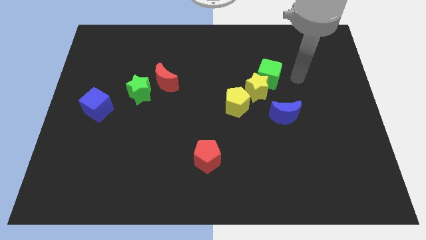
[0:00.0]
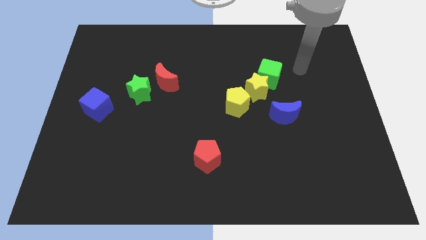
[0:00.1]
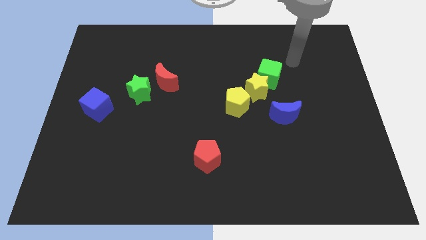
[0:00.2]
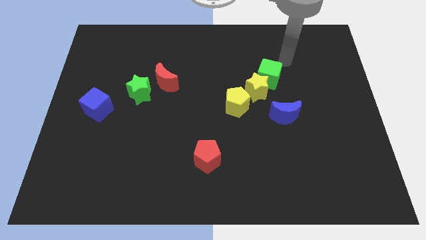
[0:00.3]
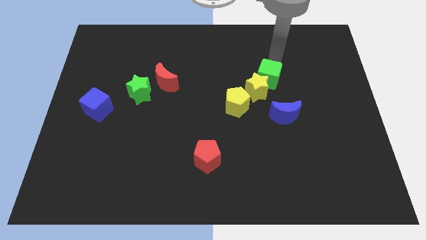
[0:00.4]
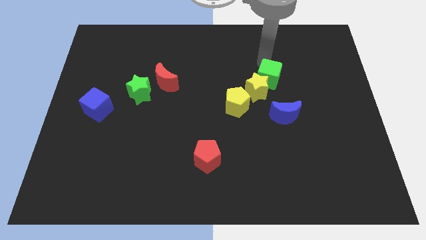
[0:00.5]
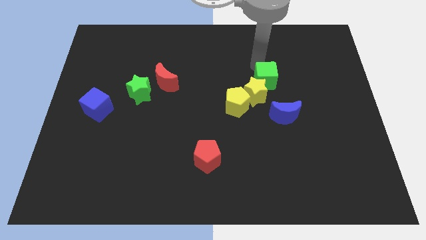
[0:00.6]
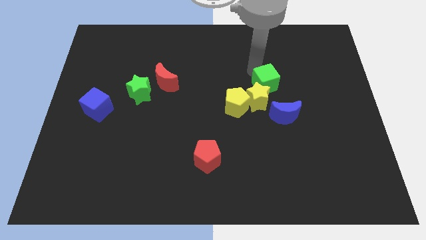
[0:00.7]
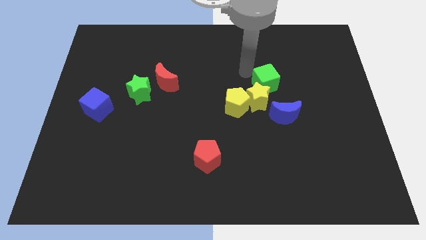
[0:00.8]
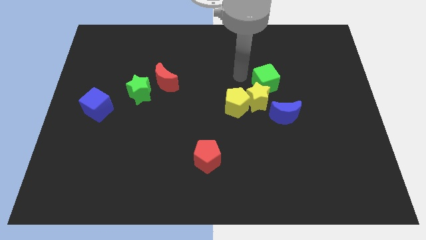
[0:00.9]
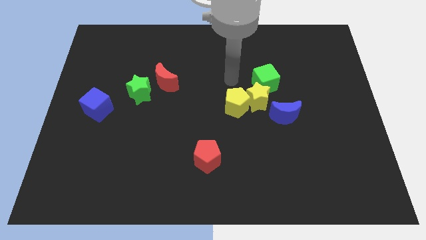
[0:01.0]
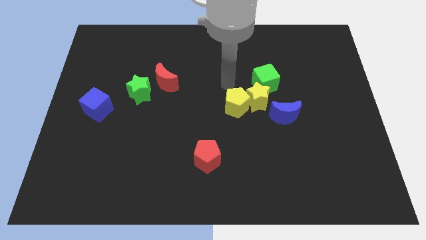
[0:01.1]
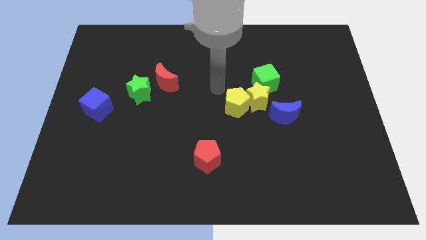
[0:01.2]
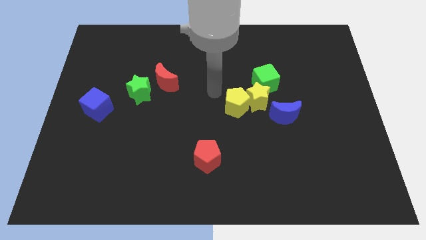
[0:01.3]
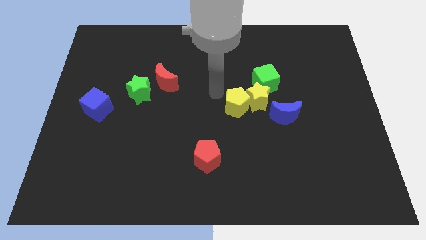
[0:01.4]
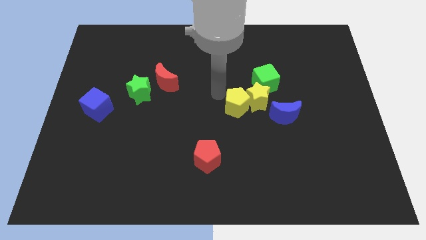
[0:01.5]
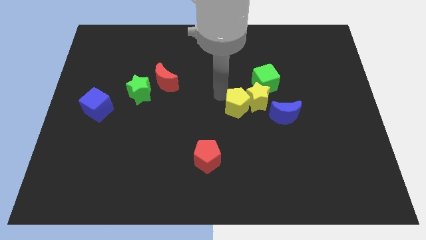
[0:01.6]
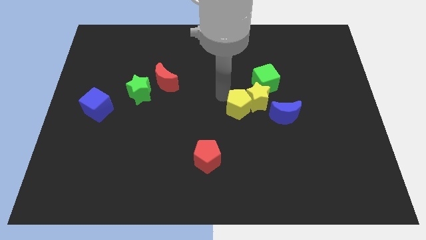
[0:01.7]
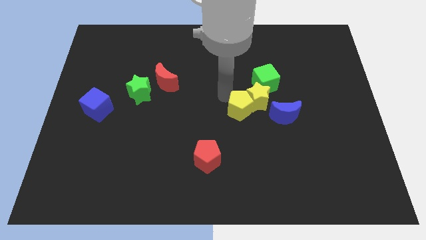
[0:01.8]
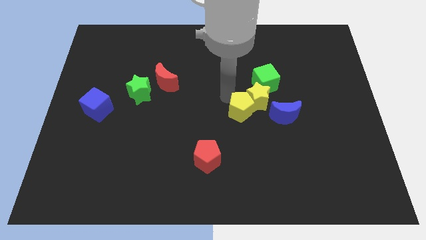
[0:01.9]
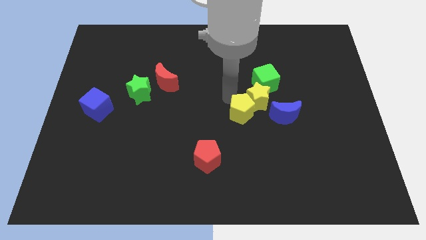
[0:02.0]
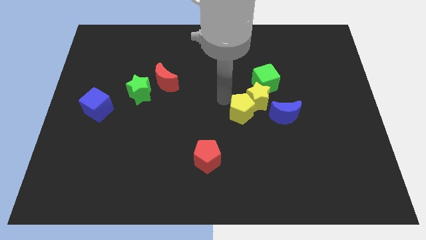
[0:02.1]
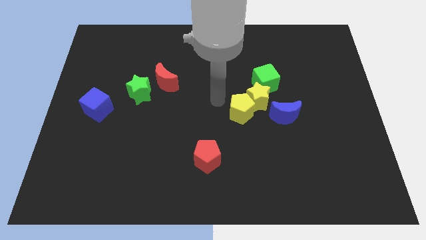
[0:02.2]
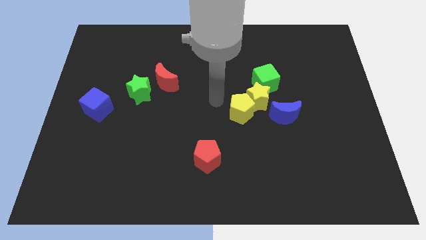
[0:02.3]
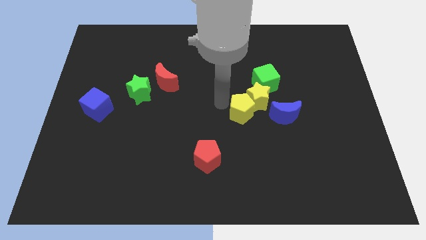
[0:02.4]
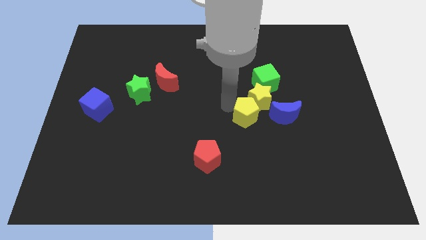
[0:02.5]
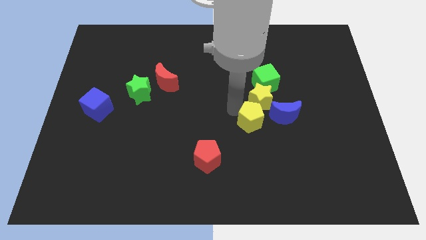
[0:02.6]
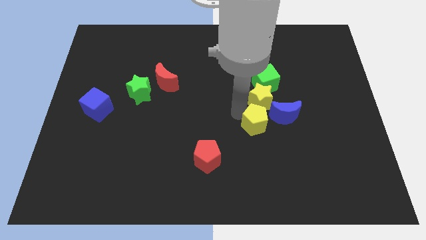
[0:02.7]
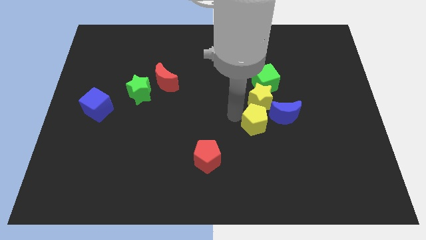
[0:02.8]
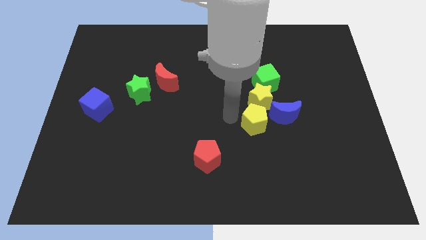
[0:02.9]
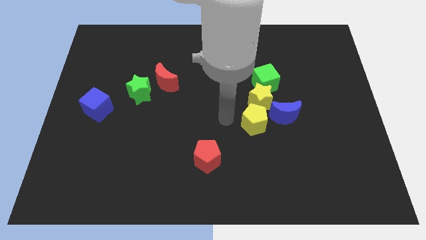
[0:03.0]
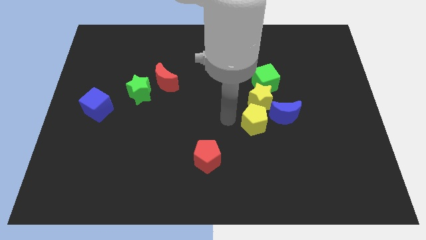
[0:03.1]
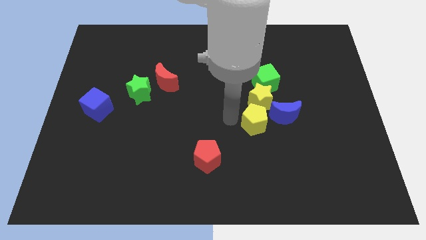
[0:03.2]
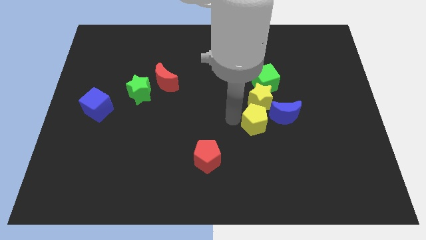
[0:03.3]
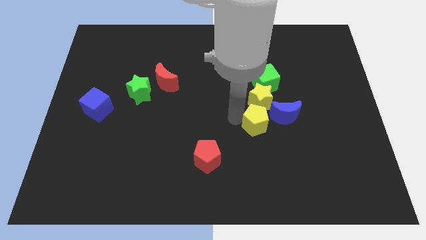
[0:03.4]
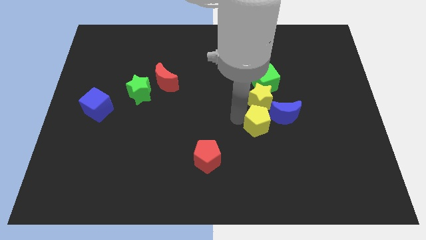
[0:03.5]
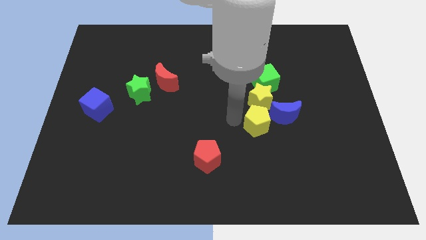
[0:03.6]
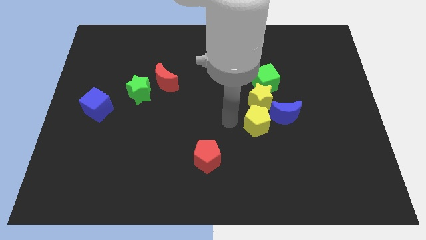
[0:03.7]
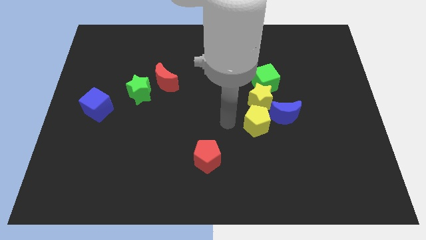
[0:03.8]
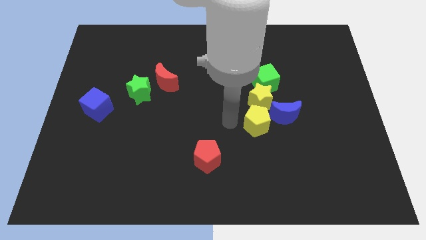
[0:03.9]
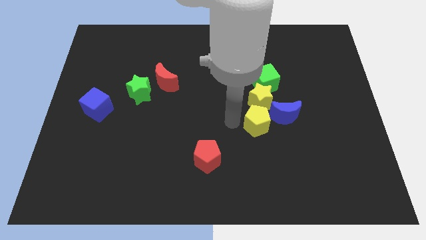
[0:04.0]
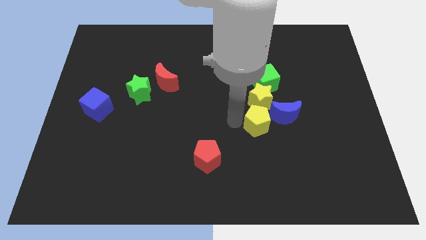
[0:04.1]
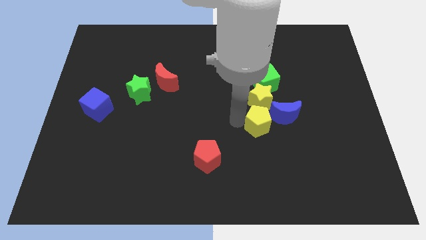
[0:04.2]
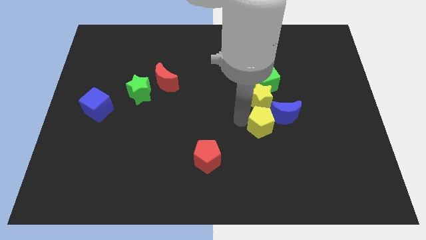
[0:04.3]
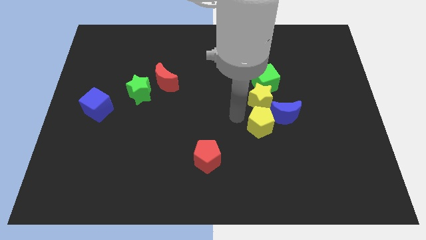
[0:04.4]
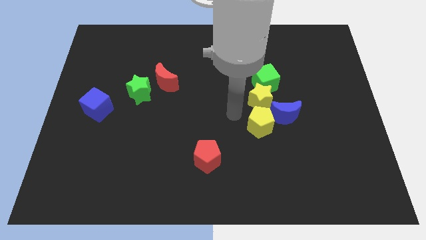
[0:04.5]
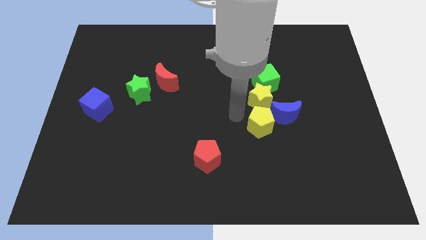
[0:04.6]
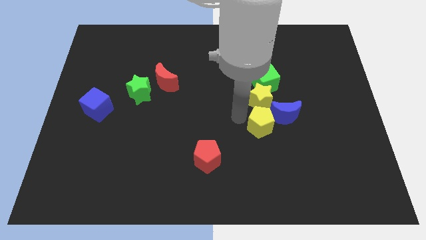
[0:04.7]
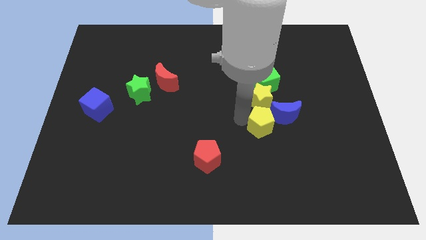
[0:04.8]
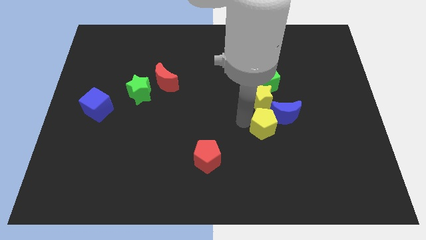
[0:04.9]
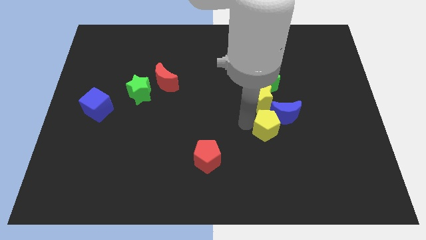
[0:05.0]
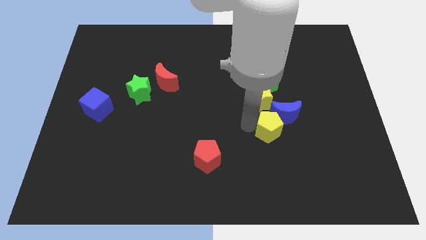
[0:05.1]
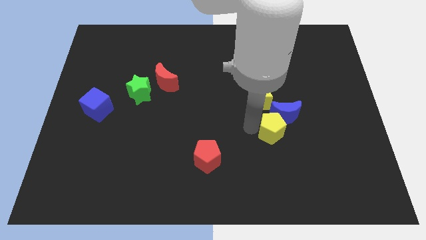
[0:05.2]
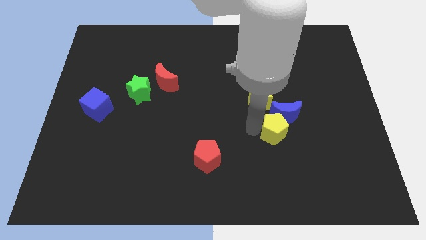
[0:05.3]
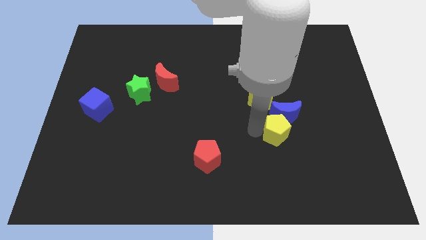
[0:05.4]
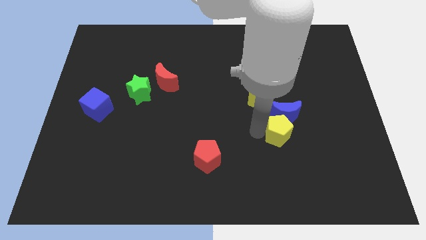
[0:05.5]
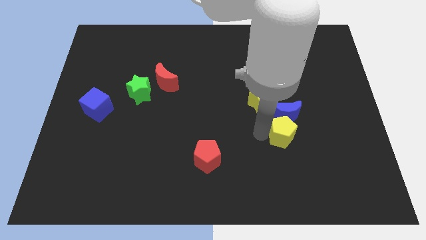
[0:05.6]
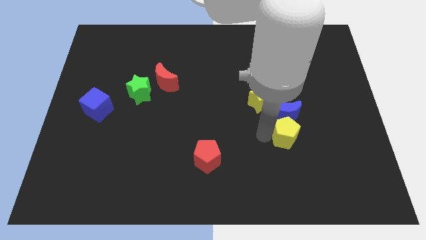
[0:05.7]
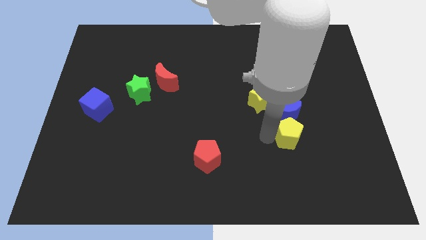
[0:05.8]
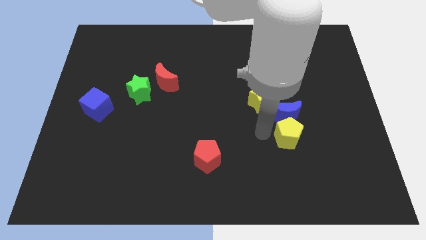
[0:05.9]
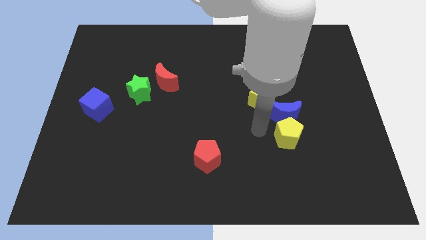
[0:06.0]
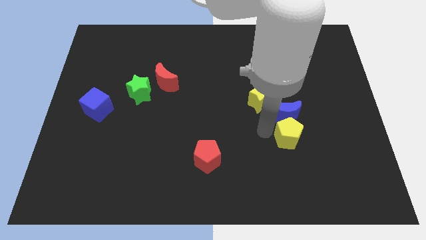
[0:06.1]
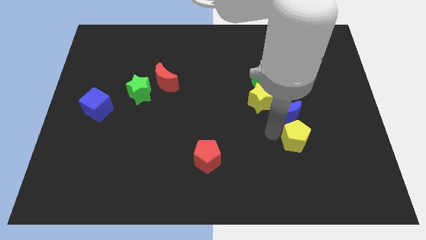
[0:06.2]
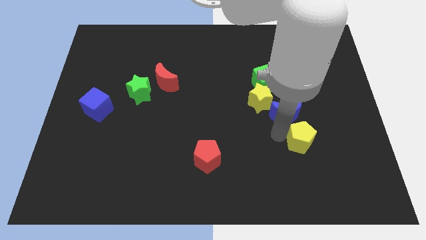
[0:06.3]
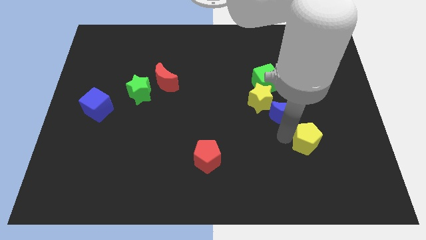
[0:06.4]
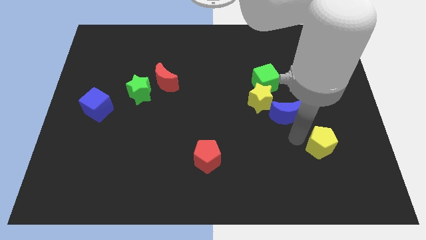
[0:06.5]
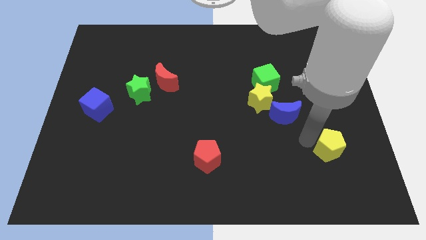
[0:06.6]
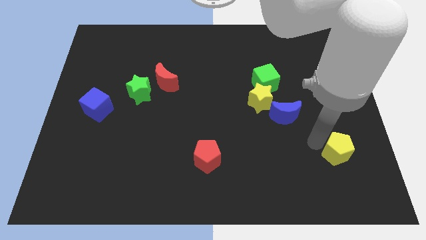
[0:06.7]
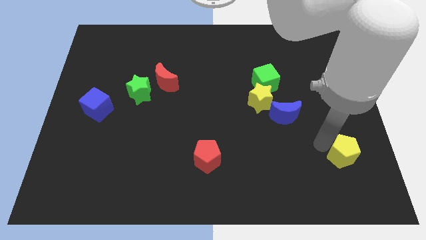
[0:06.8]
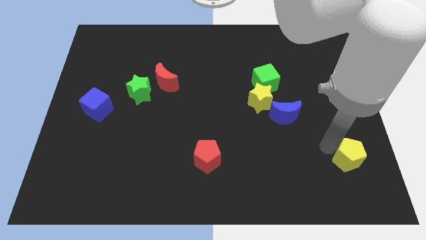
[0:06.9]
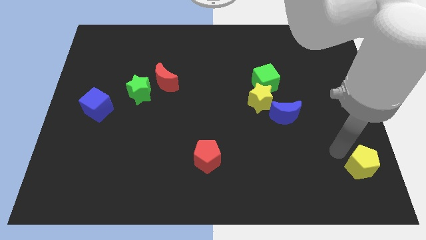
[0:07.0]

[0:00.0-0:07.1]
put the yellow pentagon to the bottom right of the board
